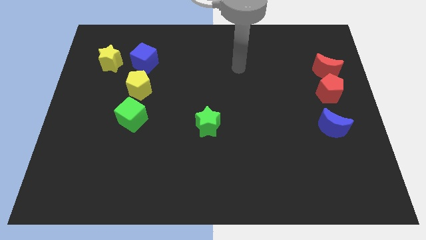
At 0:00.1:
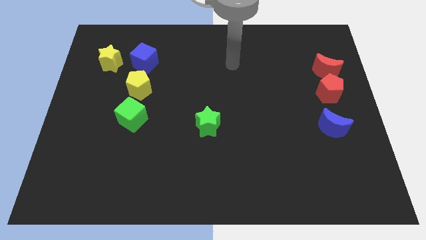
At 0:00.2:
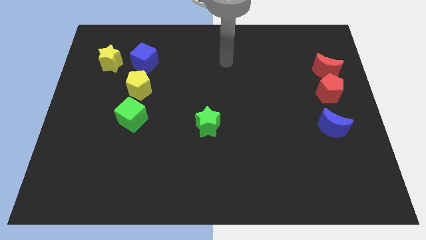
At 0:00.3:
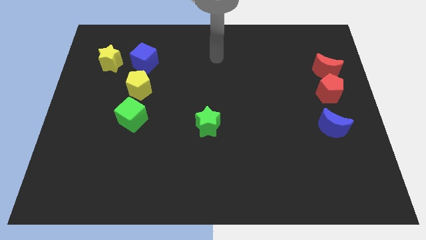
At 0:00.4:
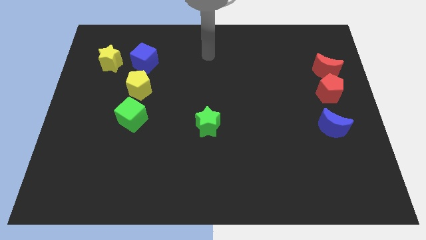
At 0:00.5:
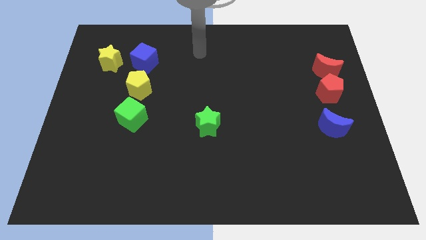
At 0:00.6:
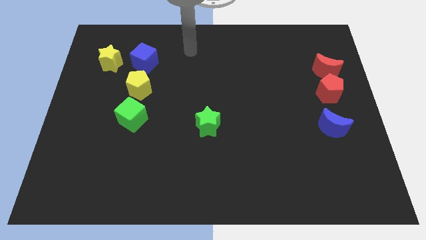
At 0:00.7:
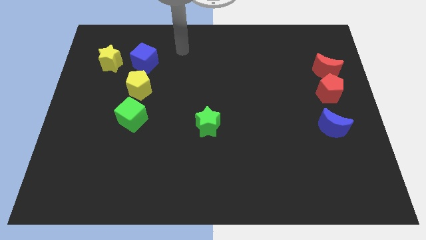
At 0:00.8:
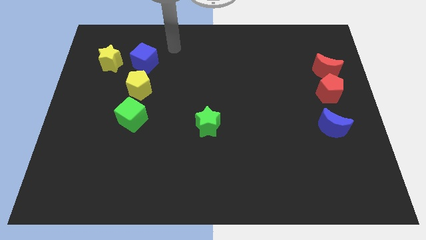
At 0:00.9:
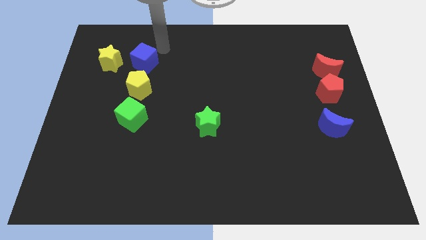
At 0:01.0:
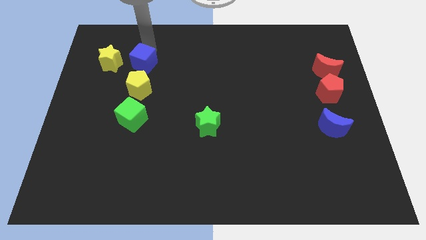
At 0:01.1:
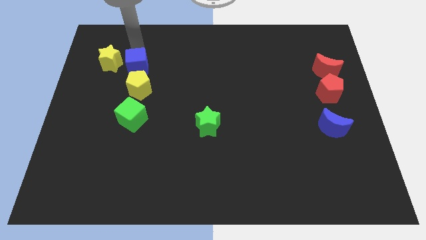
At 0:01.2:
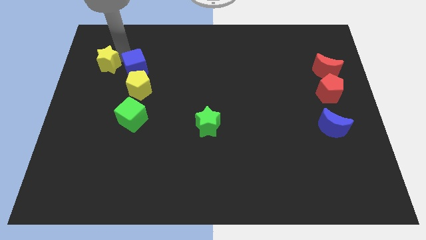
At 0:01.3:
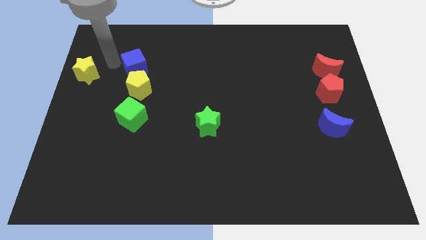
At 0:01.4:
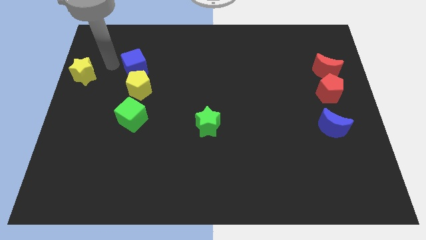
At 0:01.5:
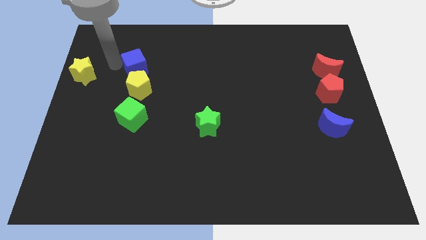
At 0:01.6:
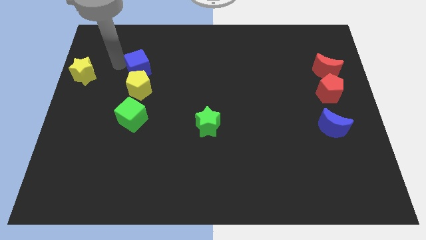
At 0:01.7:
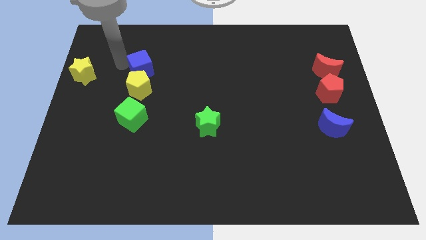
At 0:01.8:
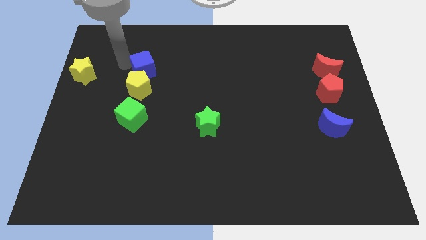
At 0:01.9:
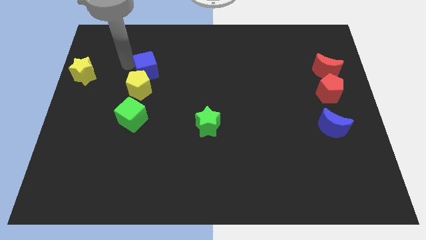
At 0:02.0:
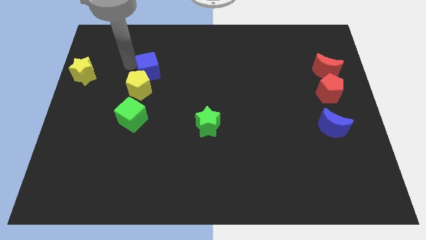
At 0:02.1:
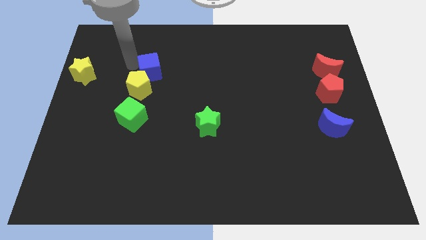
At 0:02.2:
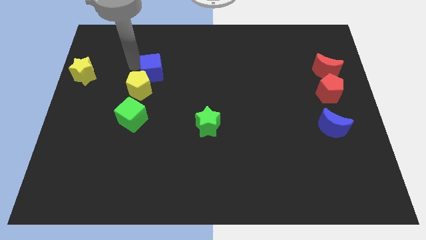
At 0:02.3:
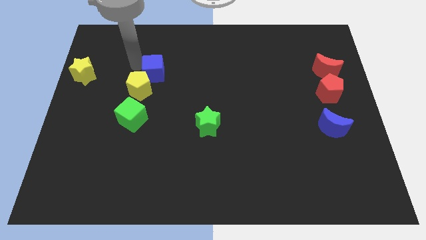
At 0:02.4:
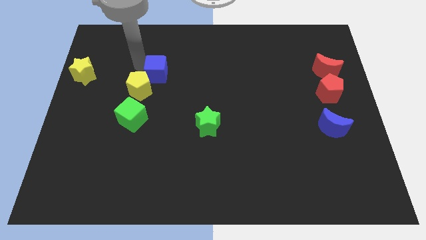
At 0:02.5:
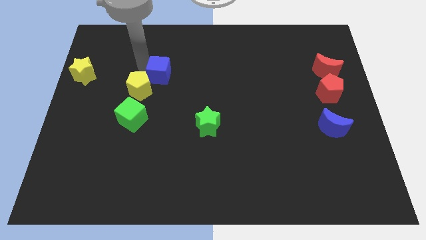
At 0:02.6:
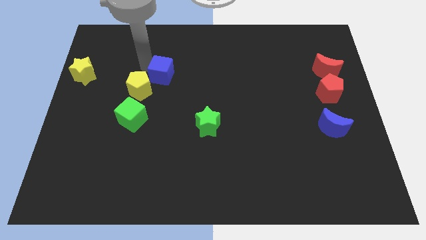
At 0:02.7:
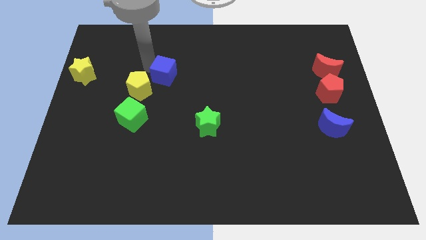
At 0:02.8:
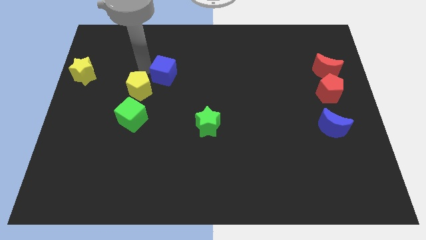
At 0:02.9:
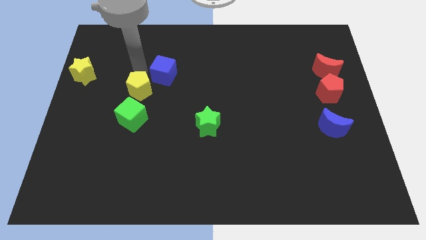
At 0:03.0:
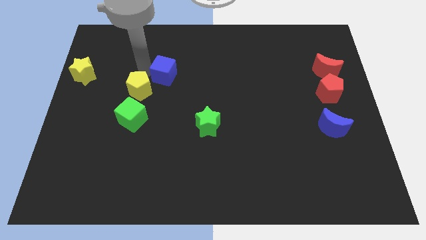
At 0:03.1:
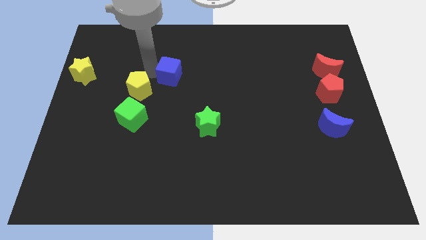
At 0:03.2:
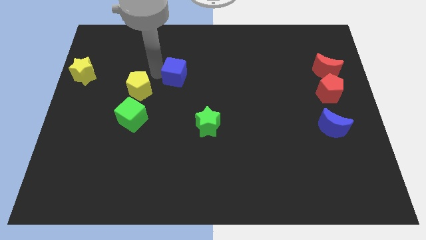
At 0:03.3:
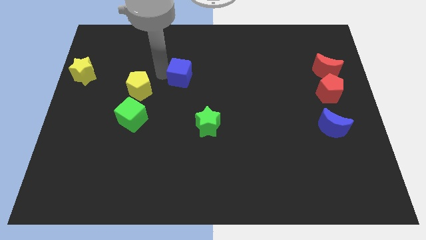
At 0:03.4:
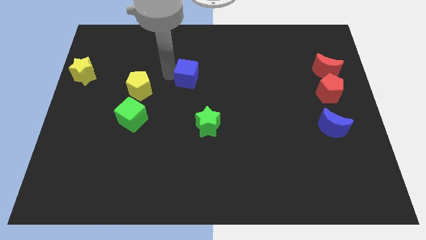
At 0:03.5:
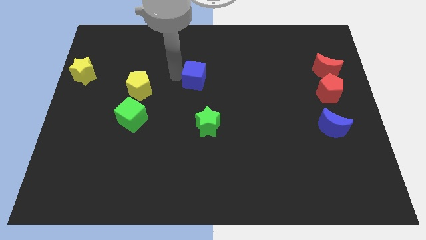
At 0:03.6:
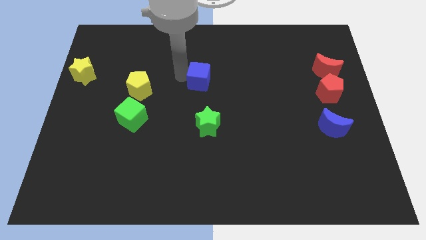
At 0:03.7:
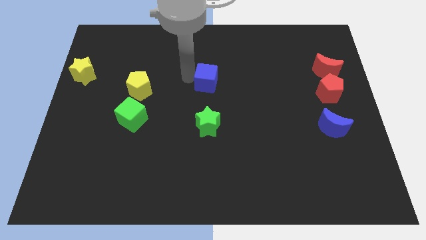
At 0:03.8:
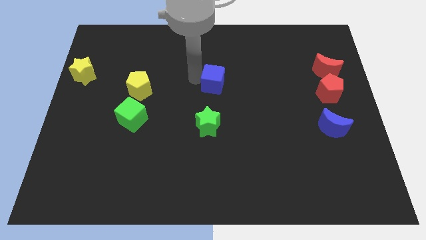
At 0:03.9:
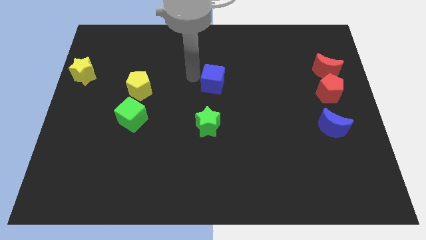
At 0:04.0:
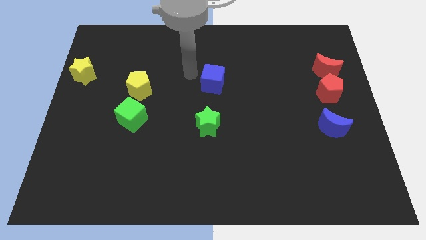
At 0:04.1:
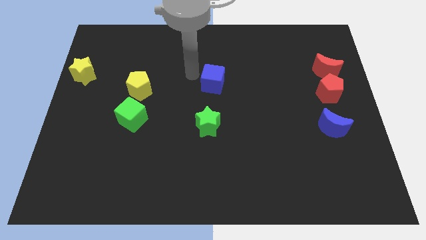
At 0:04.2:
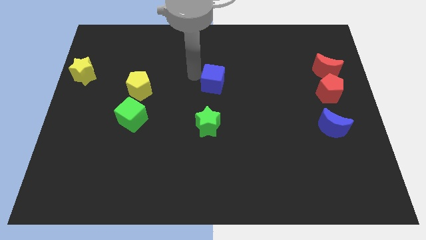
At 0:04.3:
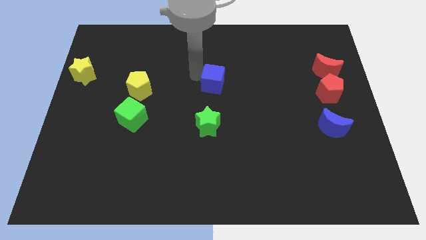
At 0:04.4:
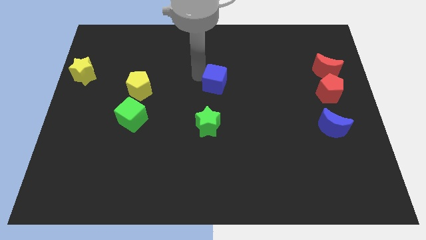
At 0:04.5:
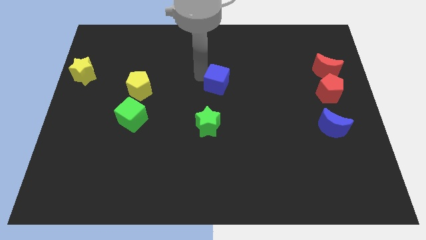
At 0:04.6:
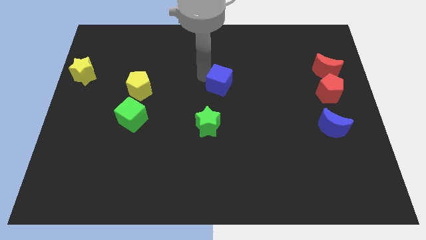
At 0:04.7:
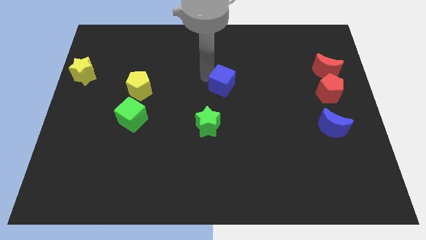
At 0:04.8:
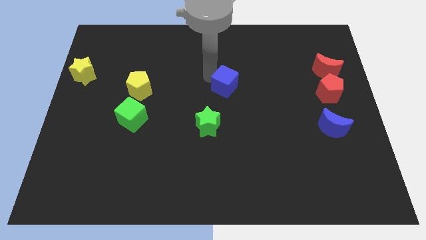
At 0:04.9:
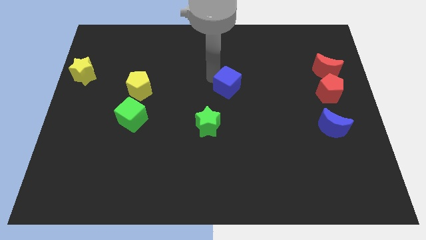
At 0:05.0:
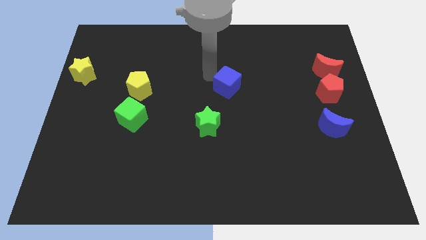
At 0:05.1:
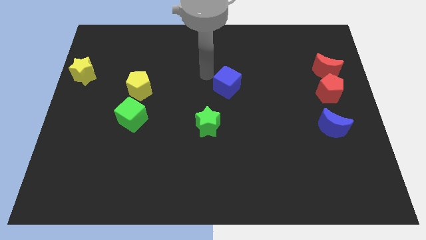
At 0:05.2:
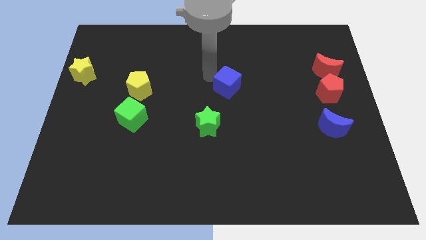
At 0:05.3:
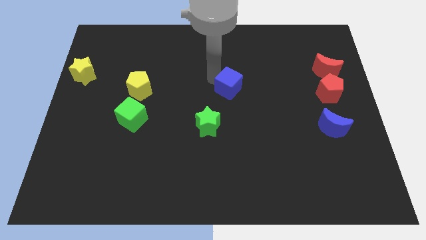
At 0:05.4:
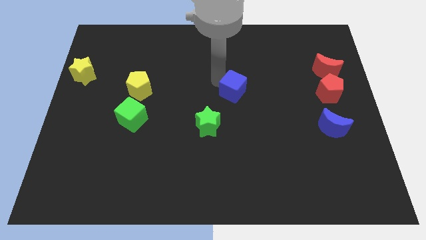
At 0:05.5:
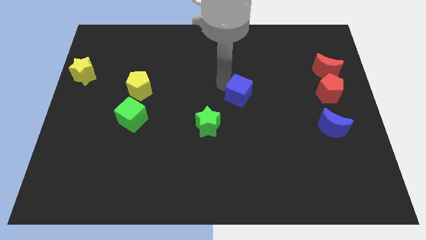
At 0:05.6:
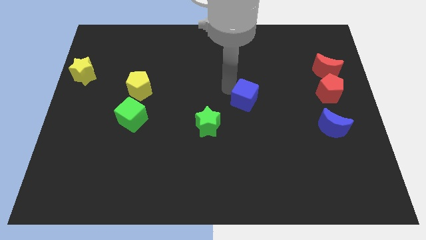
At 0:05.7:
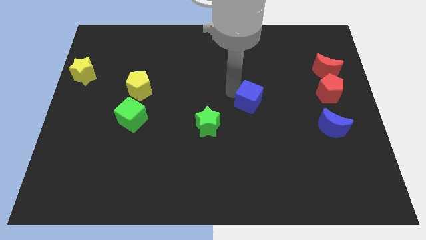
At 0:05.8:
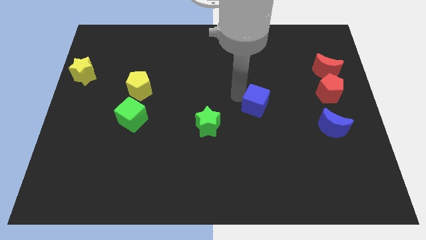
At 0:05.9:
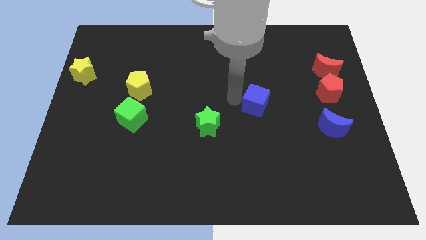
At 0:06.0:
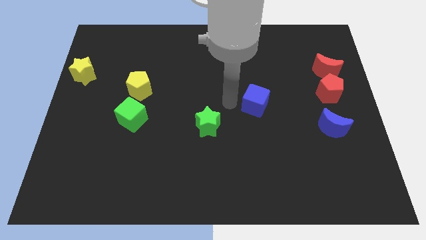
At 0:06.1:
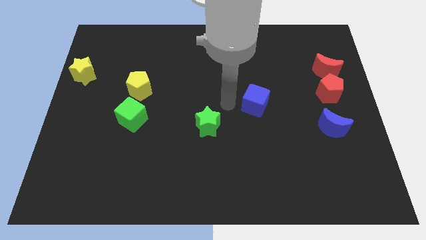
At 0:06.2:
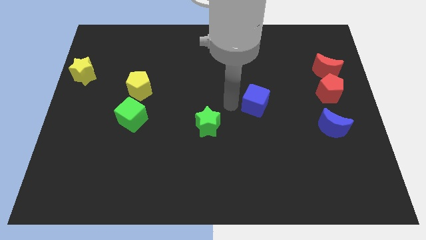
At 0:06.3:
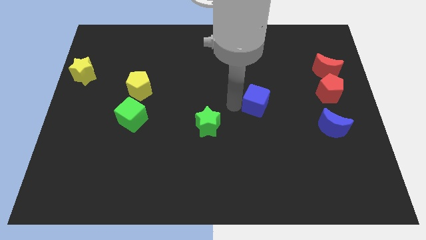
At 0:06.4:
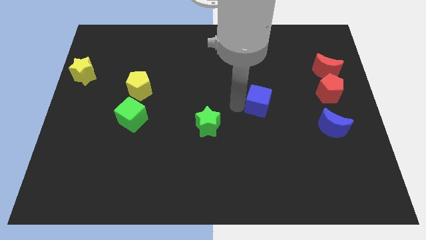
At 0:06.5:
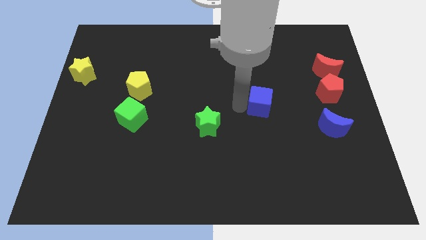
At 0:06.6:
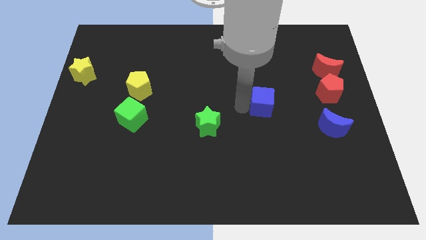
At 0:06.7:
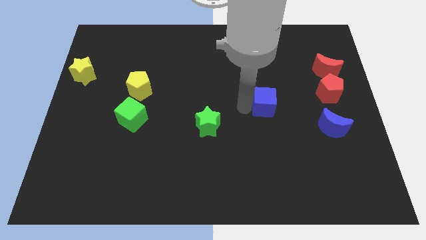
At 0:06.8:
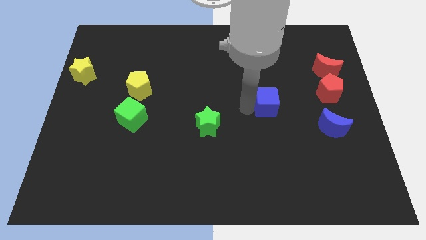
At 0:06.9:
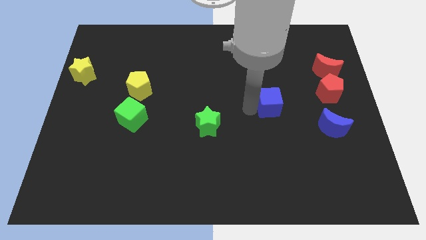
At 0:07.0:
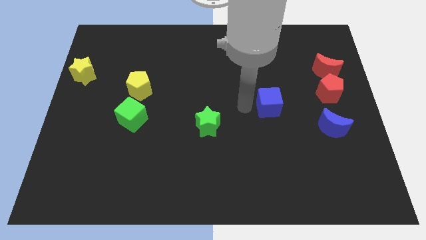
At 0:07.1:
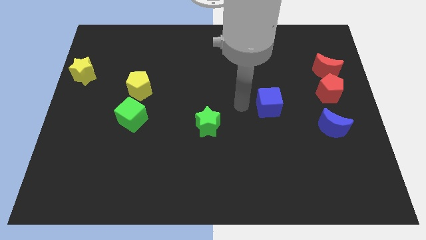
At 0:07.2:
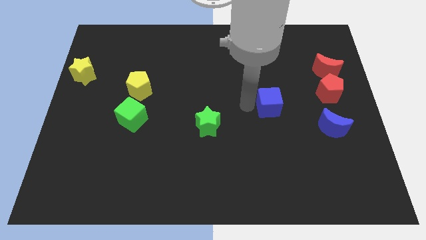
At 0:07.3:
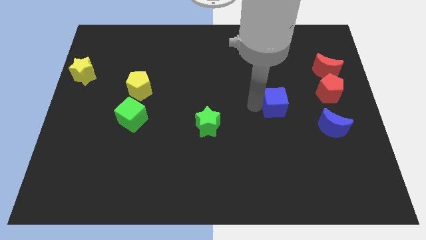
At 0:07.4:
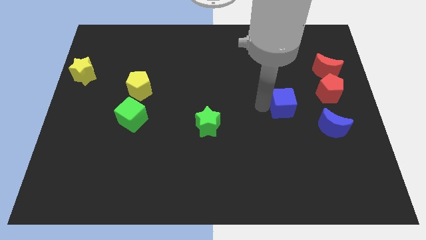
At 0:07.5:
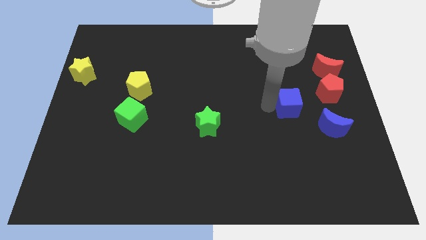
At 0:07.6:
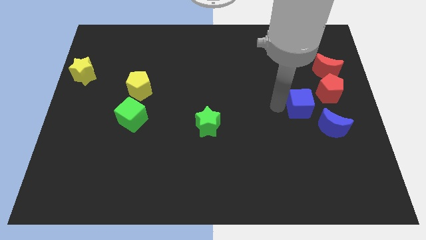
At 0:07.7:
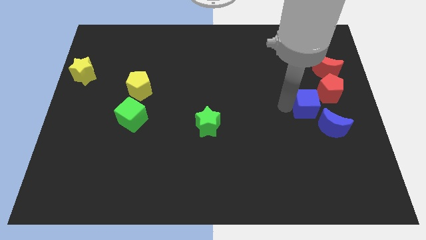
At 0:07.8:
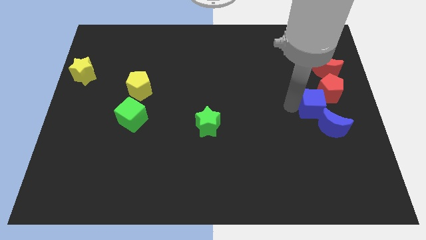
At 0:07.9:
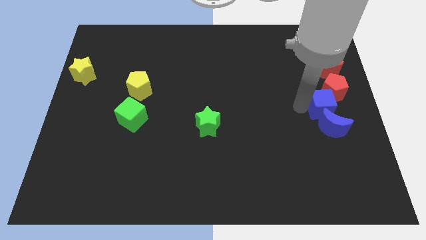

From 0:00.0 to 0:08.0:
put the blue cube to the right side
